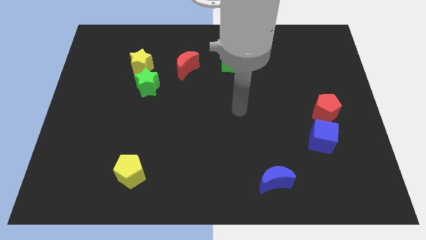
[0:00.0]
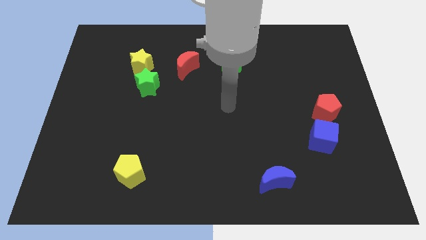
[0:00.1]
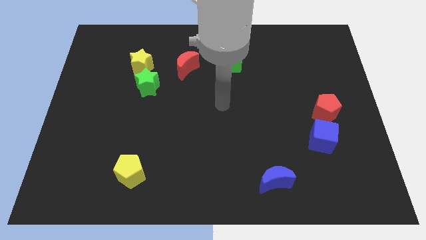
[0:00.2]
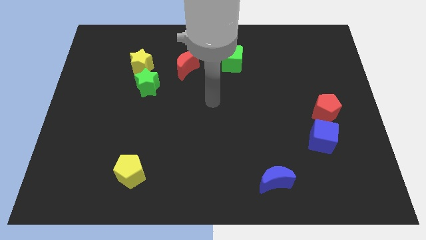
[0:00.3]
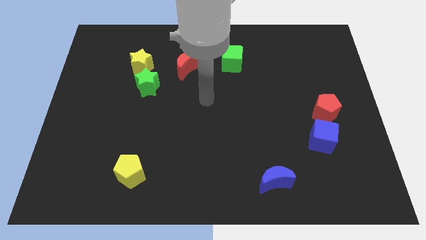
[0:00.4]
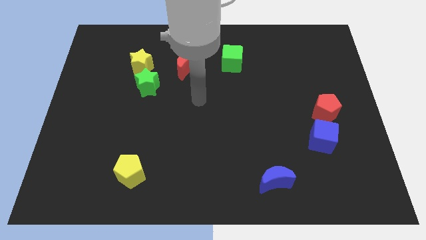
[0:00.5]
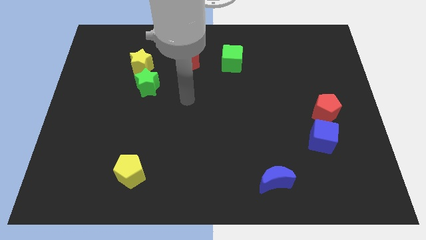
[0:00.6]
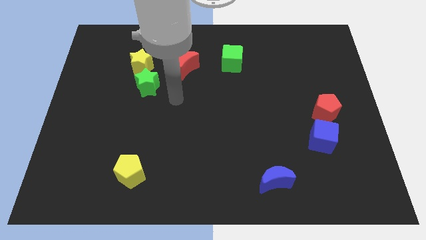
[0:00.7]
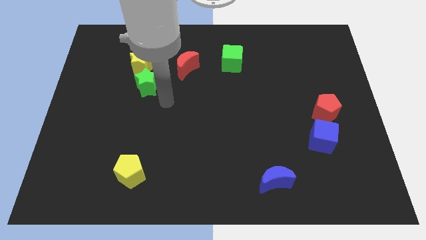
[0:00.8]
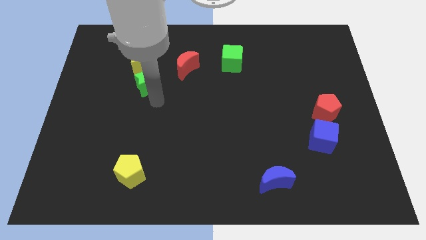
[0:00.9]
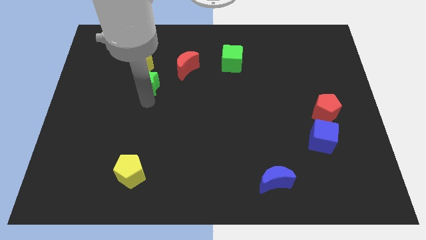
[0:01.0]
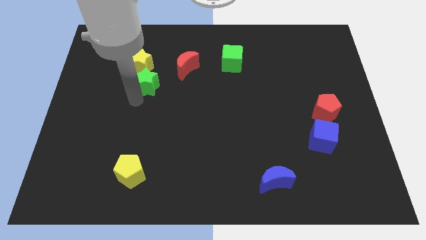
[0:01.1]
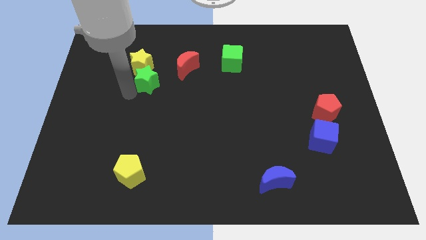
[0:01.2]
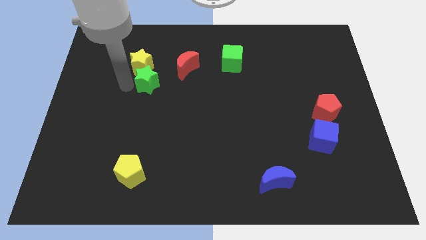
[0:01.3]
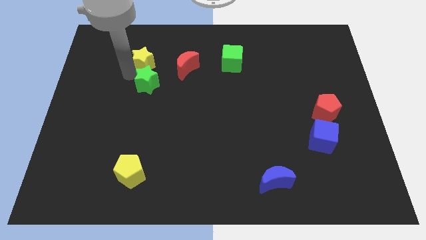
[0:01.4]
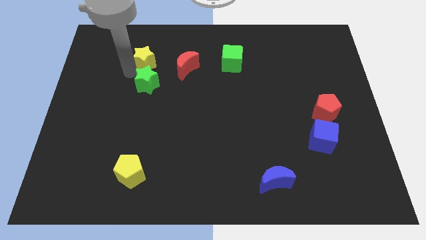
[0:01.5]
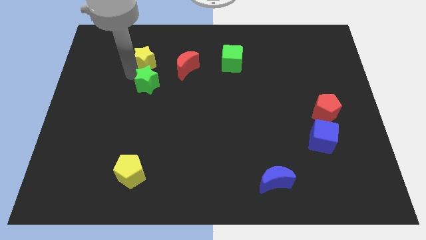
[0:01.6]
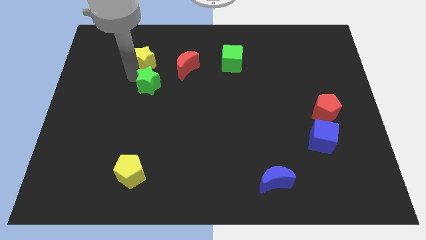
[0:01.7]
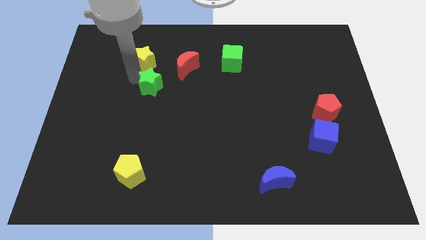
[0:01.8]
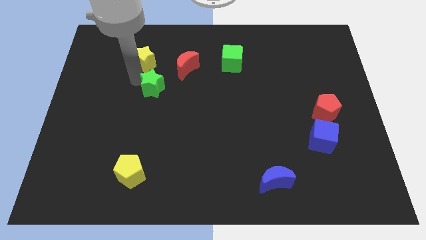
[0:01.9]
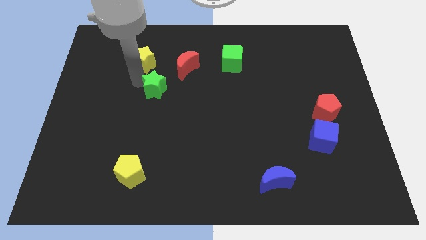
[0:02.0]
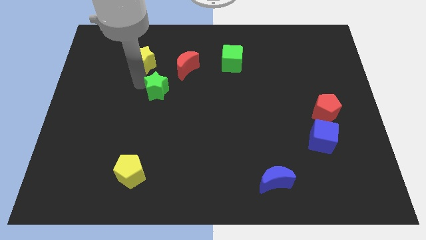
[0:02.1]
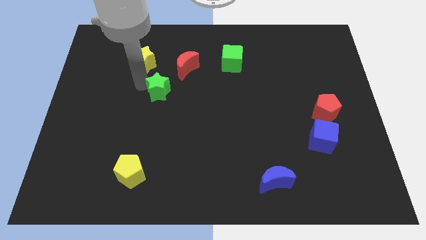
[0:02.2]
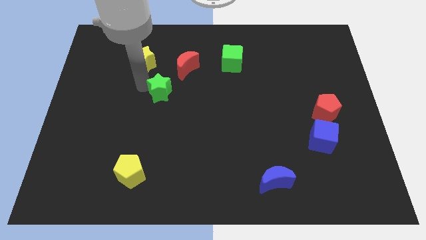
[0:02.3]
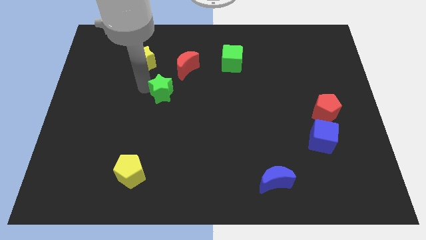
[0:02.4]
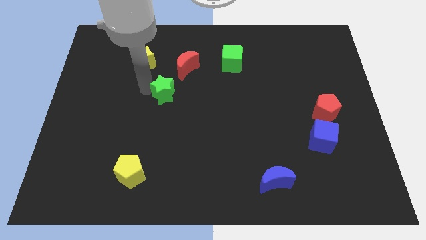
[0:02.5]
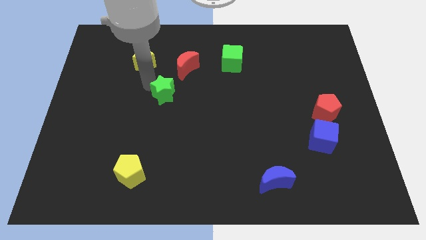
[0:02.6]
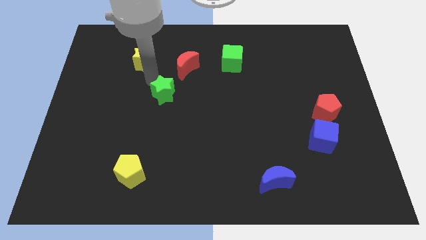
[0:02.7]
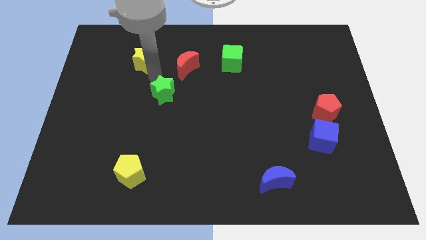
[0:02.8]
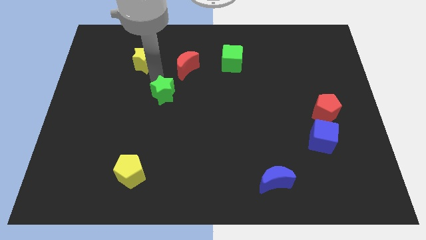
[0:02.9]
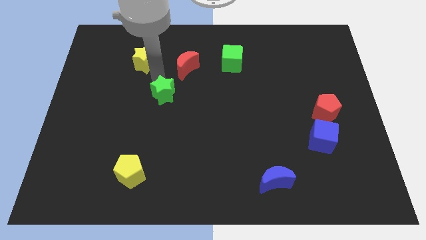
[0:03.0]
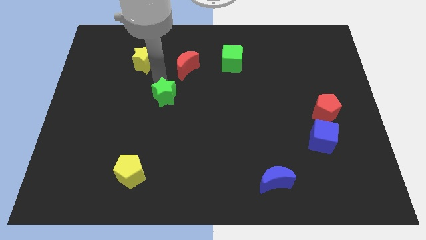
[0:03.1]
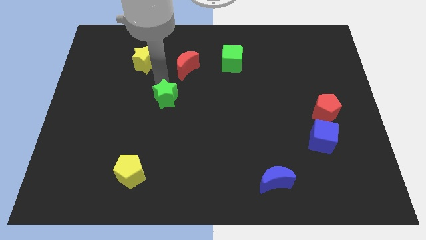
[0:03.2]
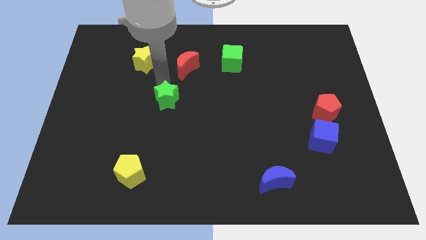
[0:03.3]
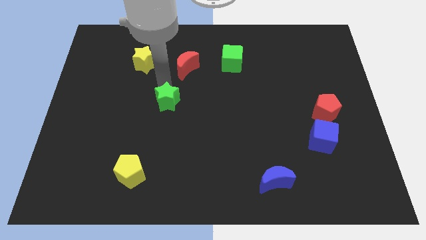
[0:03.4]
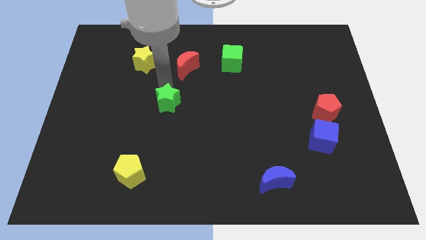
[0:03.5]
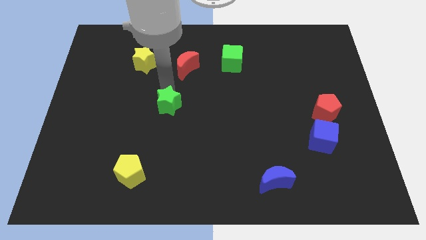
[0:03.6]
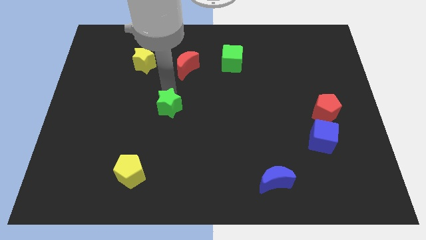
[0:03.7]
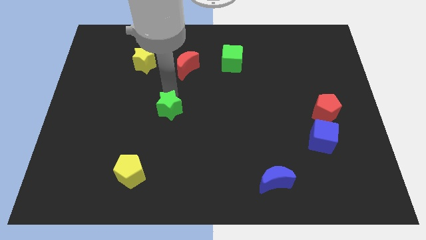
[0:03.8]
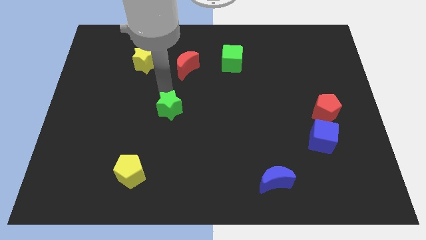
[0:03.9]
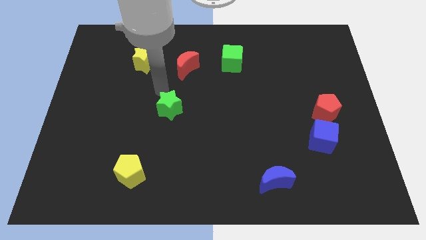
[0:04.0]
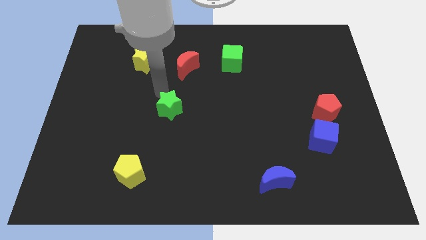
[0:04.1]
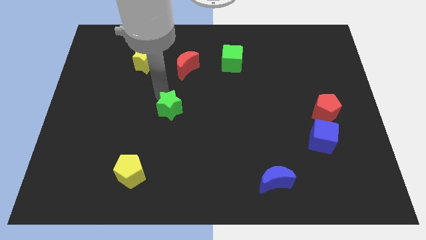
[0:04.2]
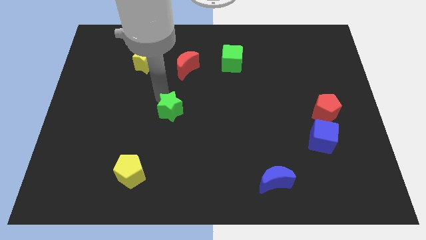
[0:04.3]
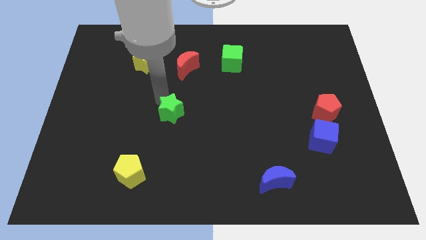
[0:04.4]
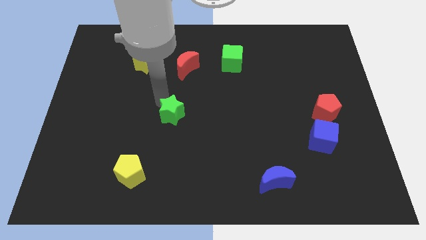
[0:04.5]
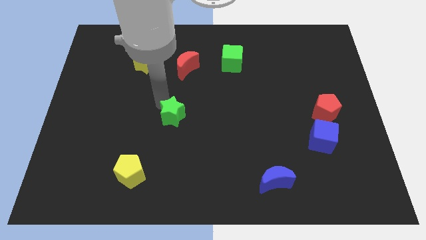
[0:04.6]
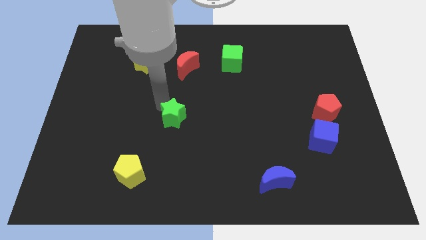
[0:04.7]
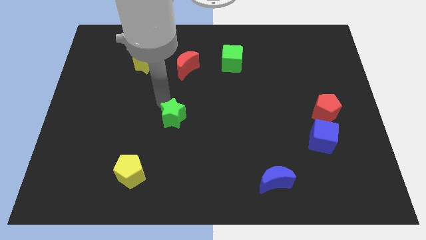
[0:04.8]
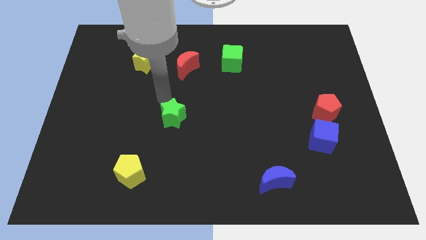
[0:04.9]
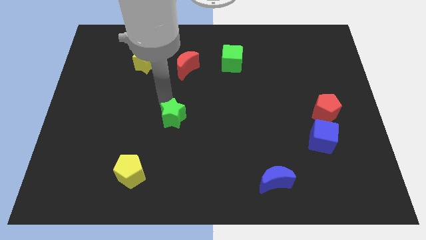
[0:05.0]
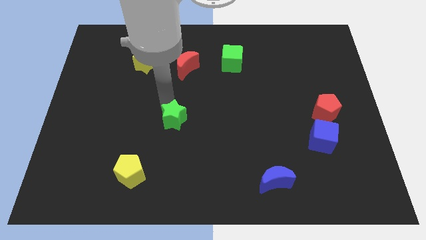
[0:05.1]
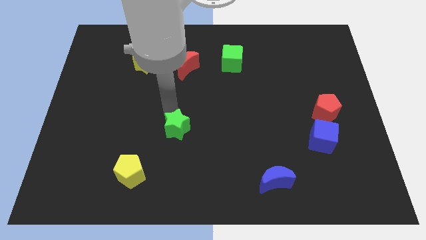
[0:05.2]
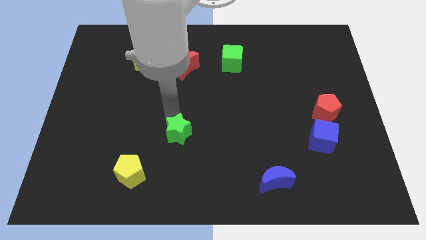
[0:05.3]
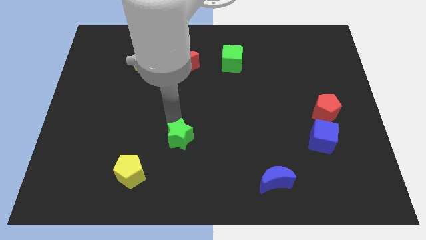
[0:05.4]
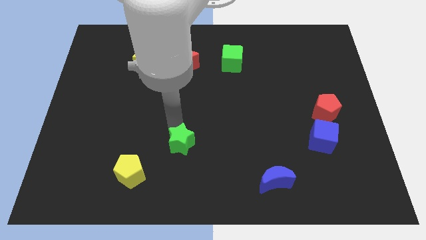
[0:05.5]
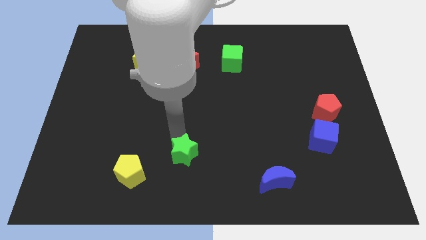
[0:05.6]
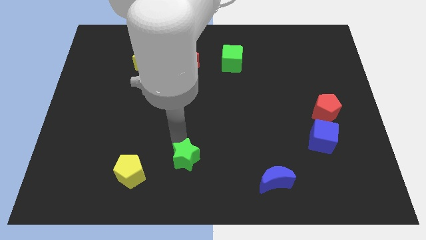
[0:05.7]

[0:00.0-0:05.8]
put the green star to the bottom side

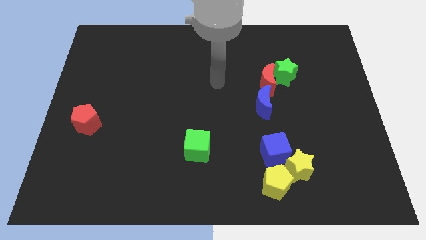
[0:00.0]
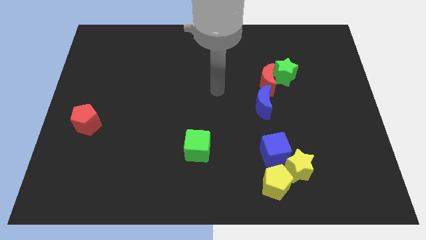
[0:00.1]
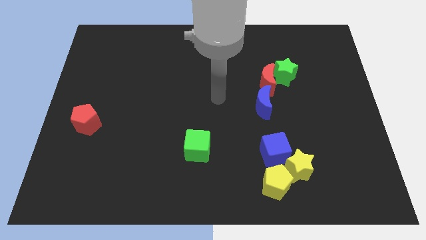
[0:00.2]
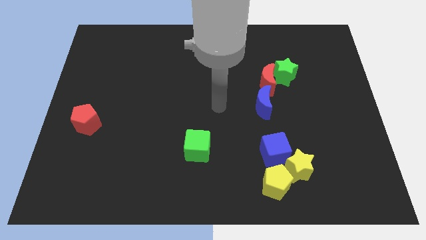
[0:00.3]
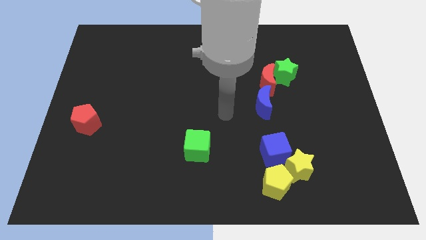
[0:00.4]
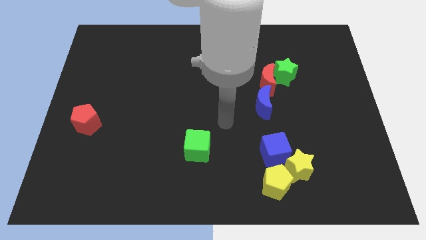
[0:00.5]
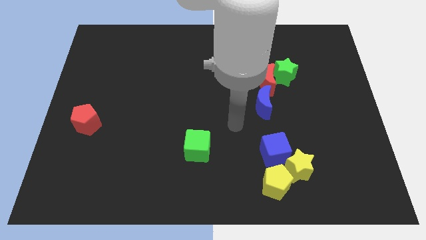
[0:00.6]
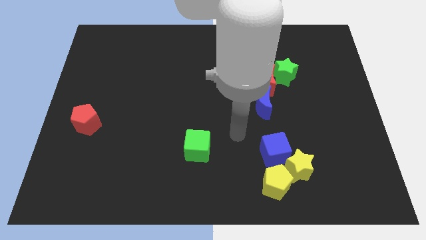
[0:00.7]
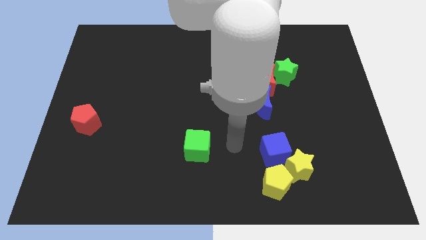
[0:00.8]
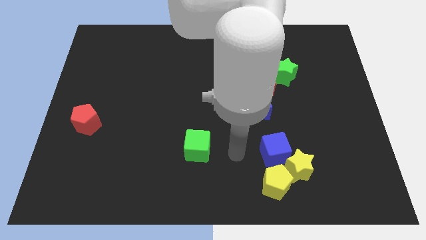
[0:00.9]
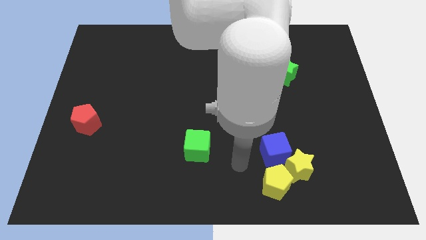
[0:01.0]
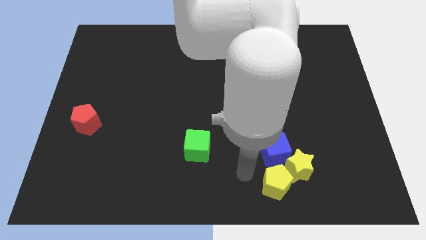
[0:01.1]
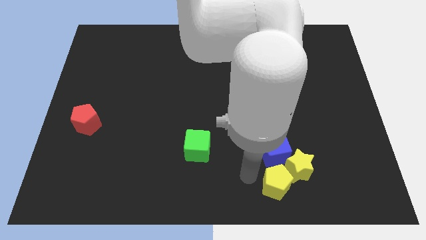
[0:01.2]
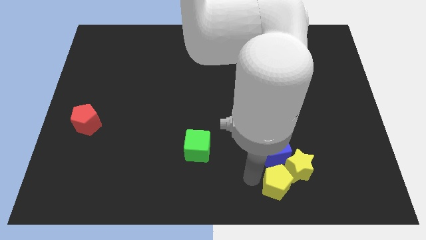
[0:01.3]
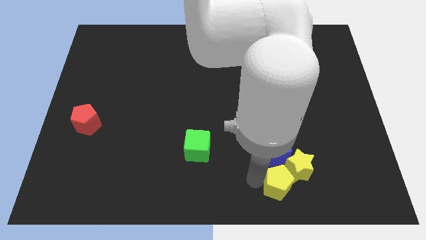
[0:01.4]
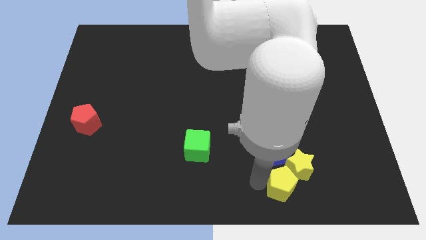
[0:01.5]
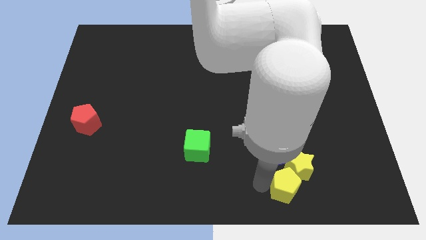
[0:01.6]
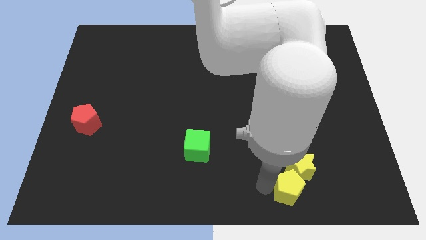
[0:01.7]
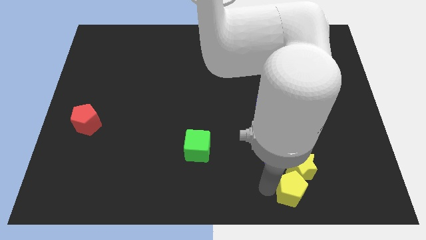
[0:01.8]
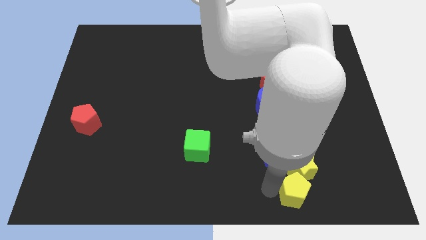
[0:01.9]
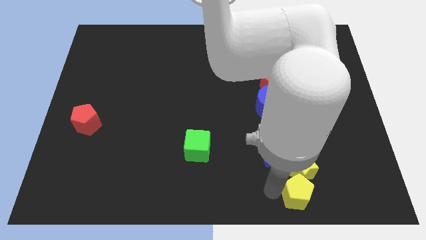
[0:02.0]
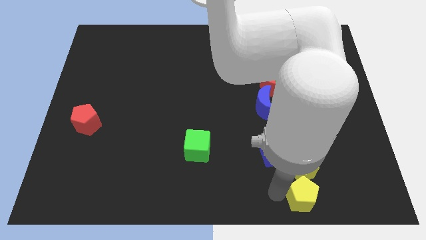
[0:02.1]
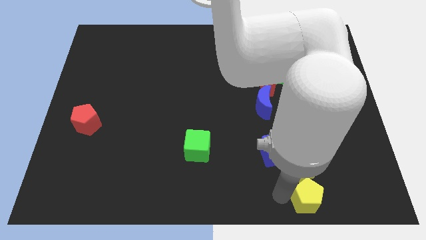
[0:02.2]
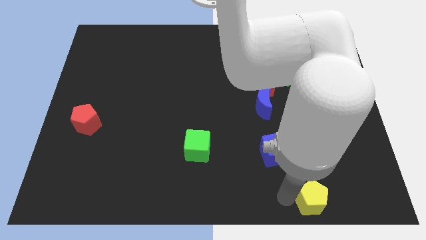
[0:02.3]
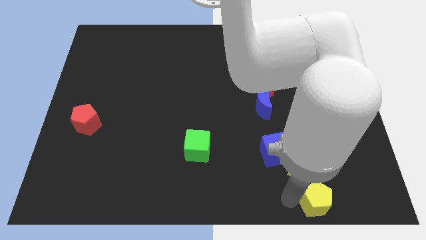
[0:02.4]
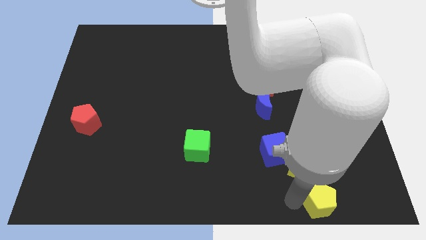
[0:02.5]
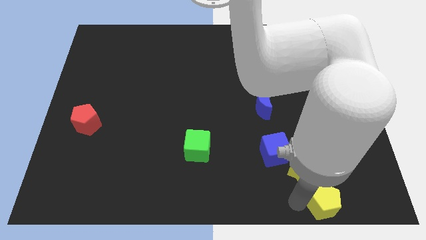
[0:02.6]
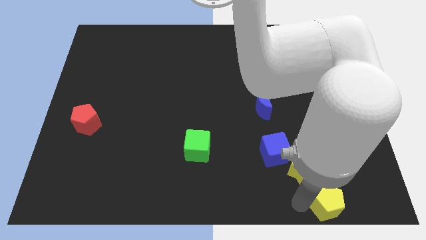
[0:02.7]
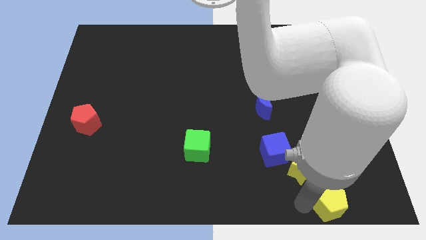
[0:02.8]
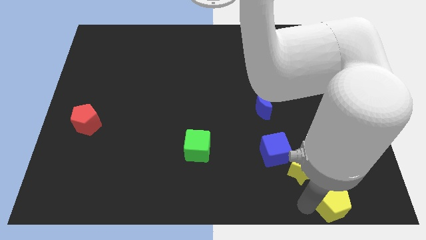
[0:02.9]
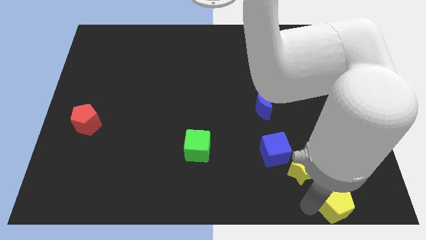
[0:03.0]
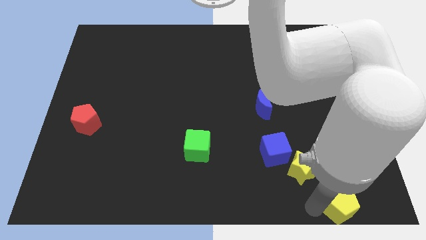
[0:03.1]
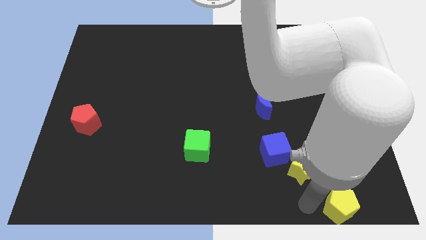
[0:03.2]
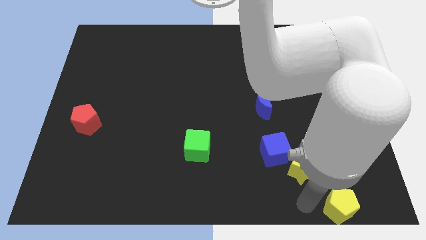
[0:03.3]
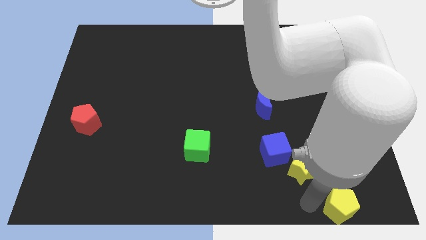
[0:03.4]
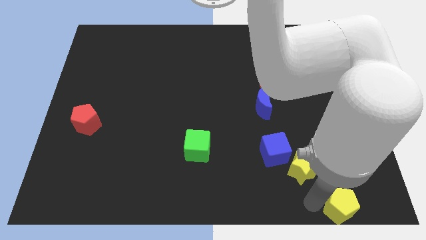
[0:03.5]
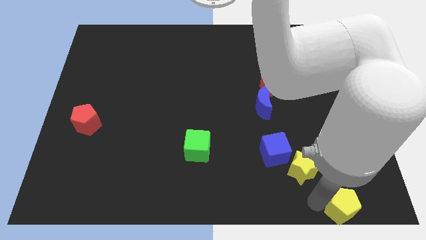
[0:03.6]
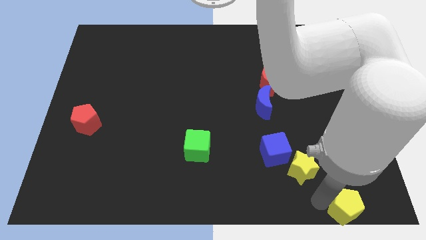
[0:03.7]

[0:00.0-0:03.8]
push the yellow pentagon to the bottom right
